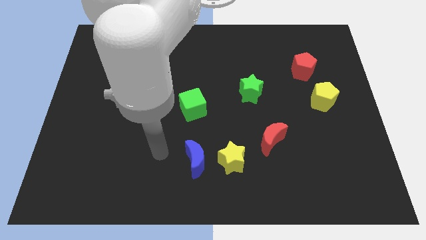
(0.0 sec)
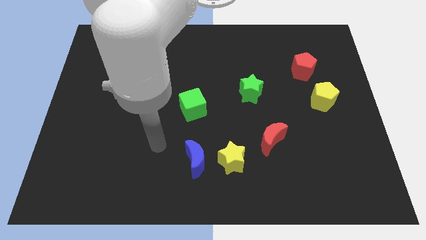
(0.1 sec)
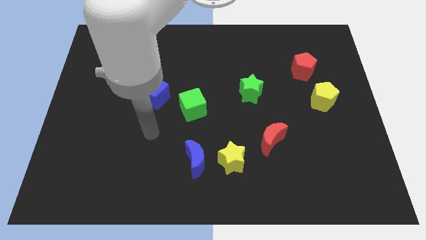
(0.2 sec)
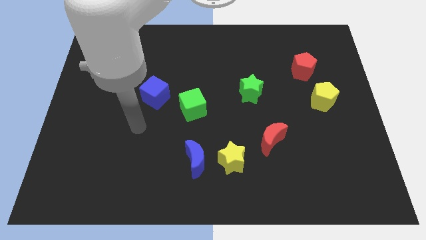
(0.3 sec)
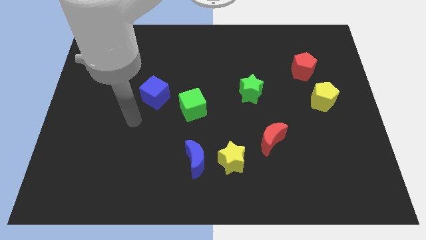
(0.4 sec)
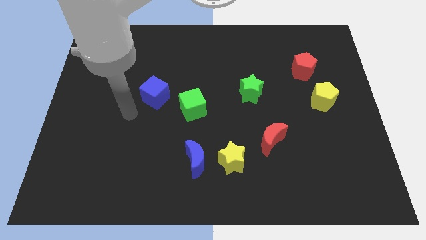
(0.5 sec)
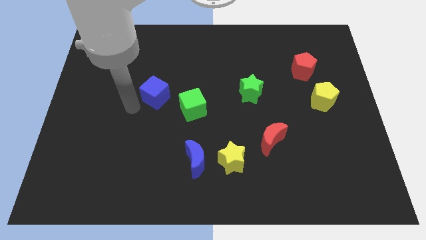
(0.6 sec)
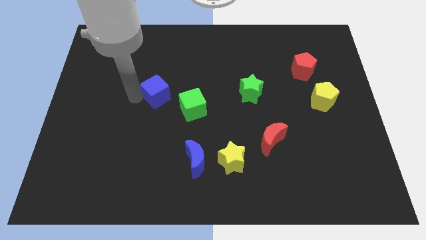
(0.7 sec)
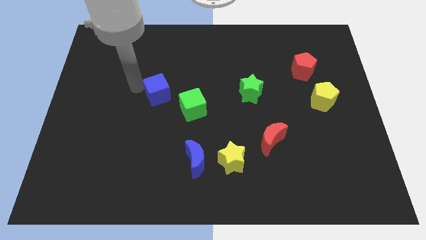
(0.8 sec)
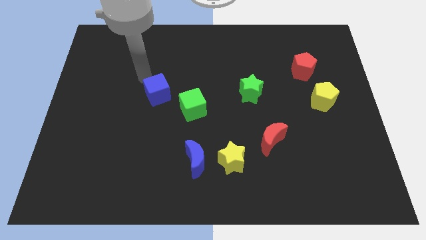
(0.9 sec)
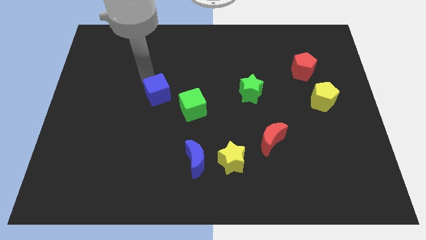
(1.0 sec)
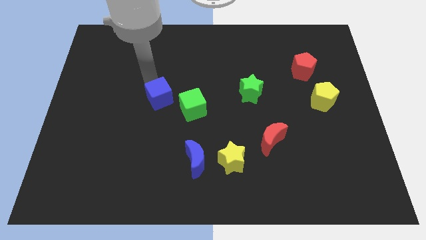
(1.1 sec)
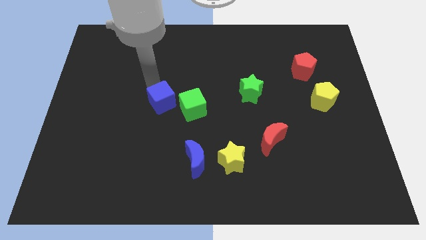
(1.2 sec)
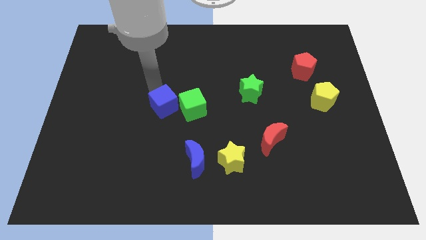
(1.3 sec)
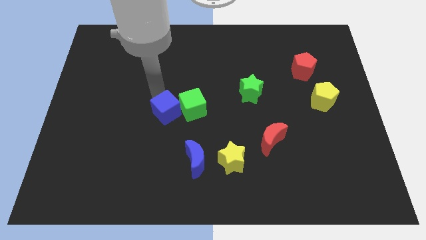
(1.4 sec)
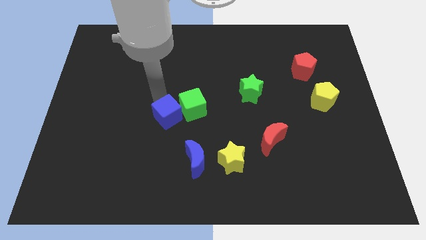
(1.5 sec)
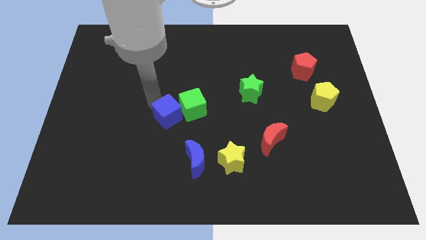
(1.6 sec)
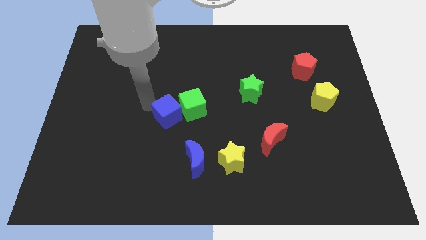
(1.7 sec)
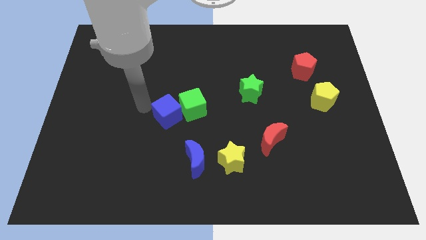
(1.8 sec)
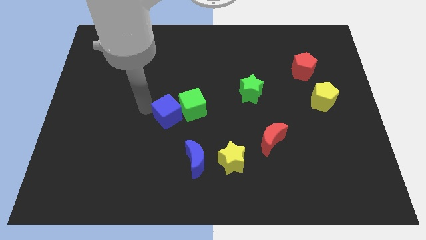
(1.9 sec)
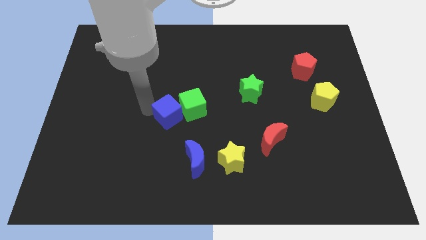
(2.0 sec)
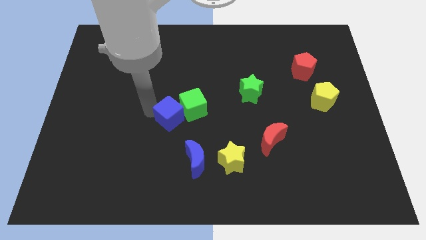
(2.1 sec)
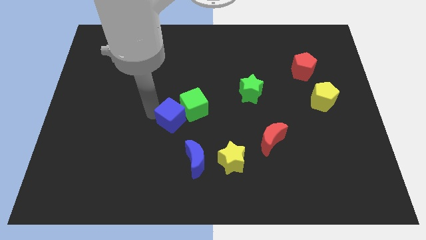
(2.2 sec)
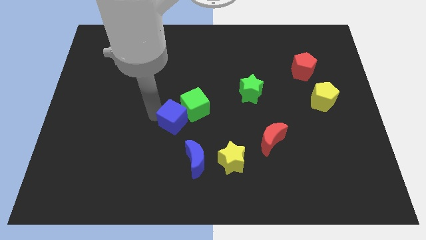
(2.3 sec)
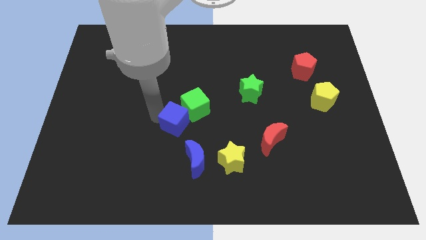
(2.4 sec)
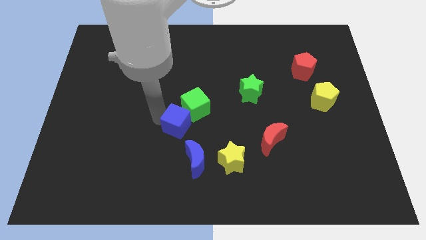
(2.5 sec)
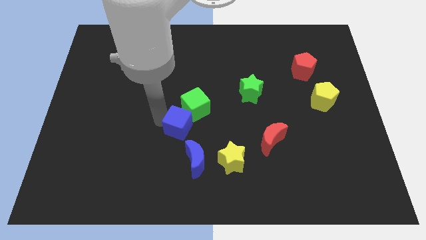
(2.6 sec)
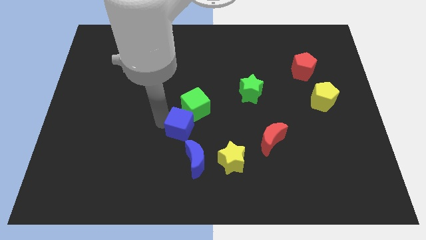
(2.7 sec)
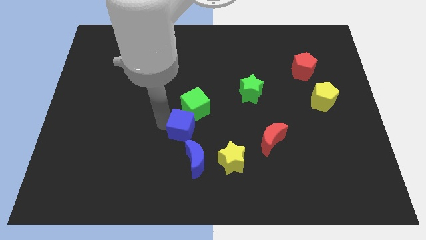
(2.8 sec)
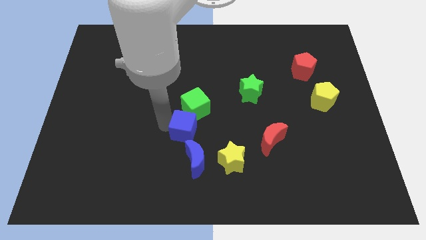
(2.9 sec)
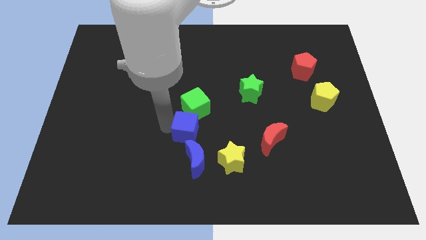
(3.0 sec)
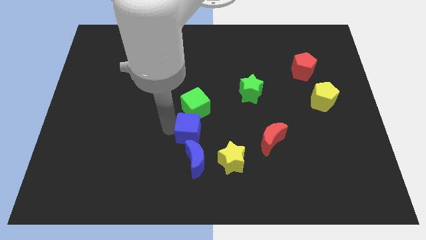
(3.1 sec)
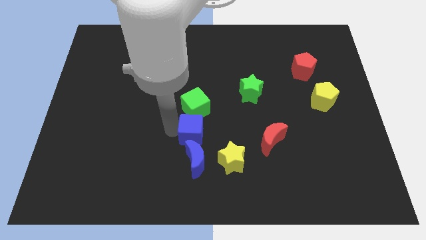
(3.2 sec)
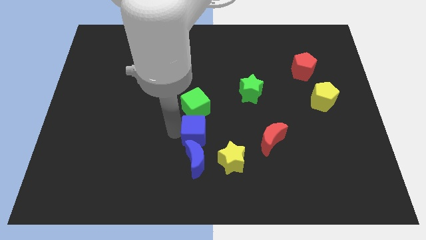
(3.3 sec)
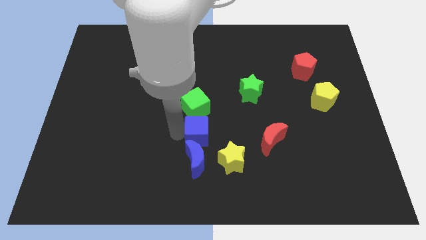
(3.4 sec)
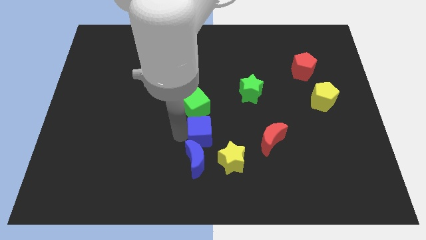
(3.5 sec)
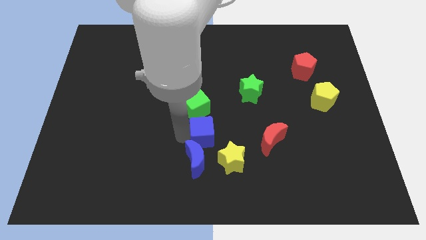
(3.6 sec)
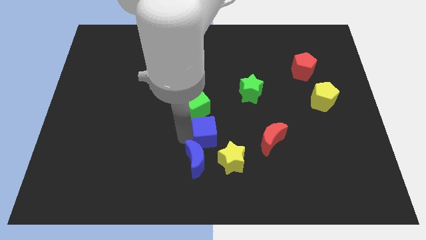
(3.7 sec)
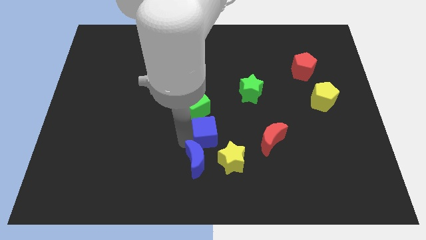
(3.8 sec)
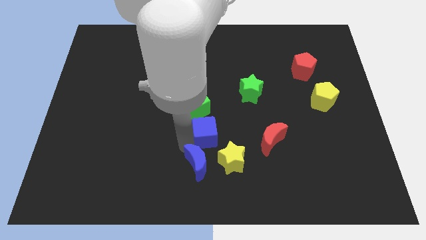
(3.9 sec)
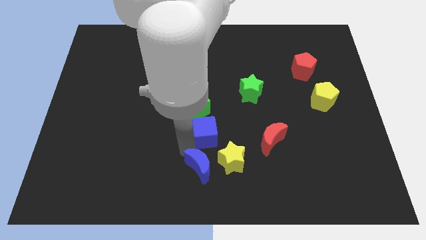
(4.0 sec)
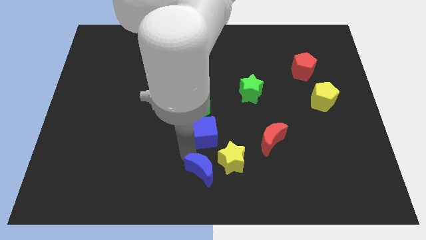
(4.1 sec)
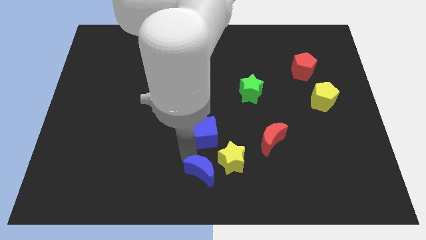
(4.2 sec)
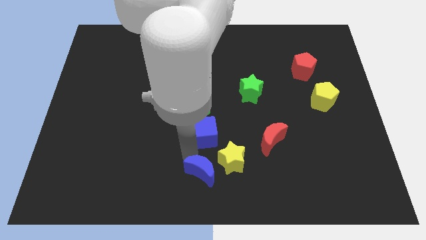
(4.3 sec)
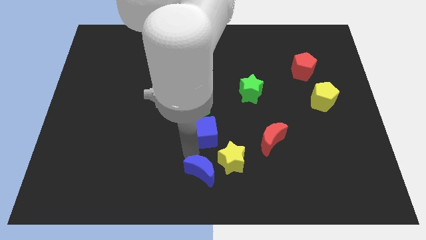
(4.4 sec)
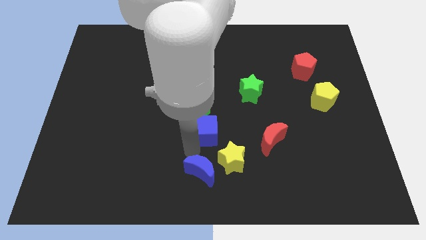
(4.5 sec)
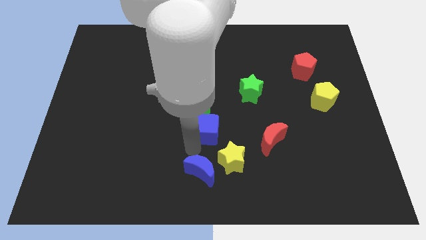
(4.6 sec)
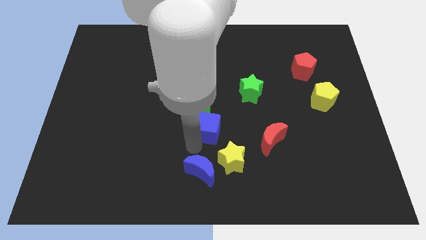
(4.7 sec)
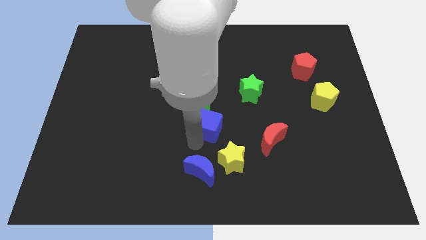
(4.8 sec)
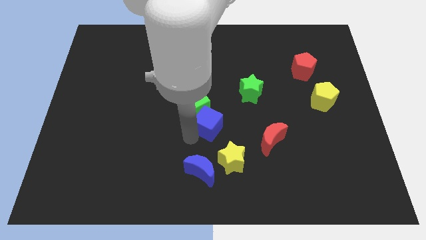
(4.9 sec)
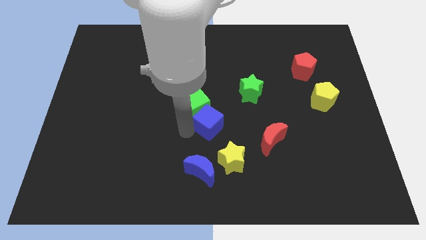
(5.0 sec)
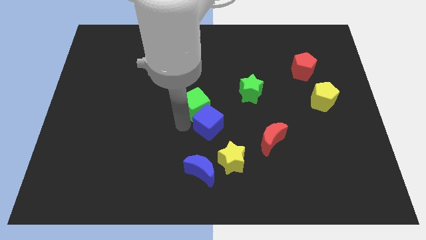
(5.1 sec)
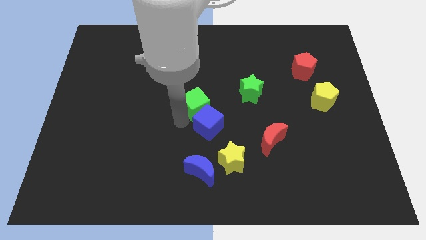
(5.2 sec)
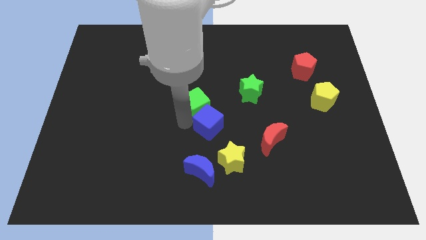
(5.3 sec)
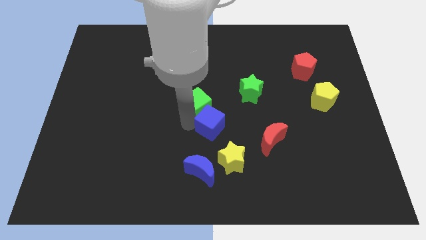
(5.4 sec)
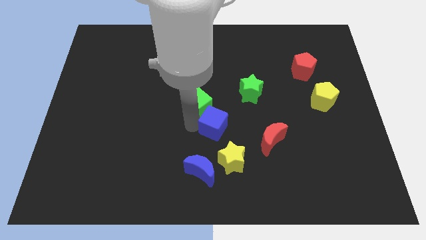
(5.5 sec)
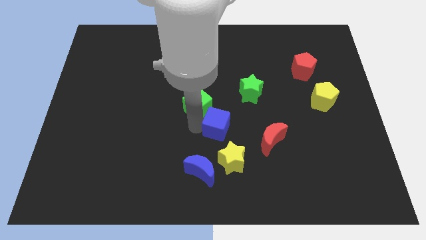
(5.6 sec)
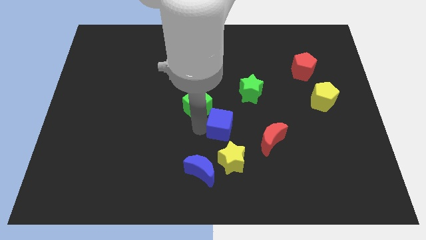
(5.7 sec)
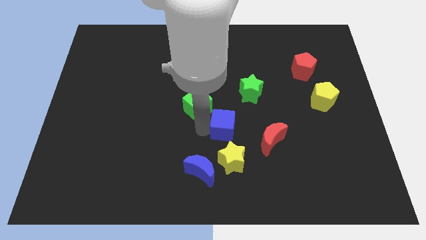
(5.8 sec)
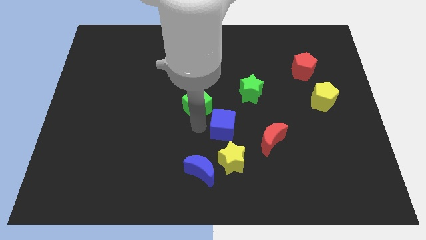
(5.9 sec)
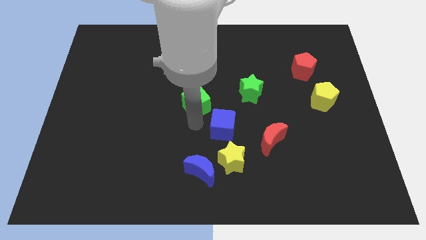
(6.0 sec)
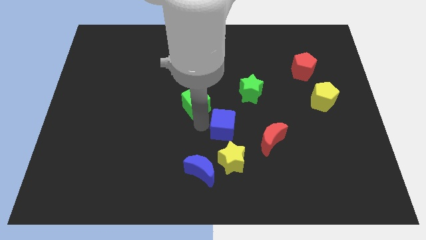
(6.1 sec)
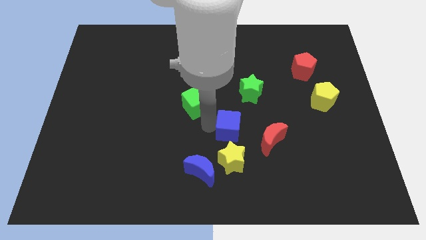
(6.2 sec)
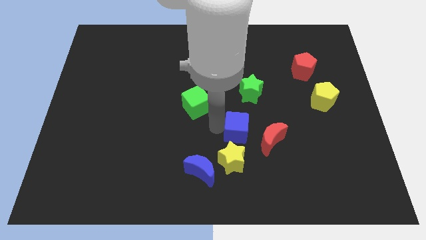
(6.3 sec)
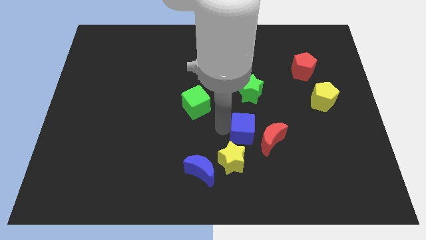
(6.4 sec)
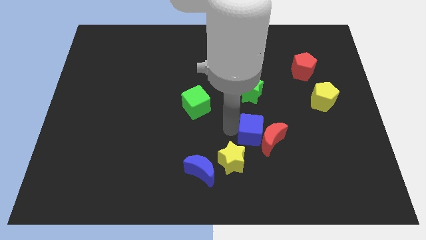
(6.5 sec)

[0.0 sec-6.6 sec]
push the blue cube towards the red moon
